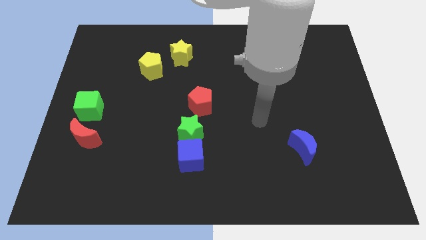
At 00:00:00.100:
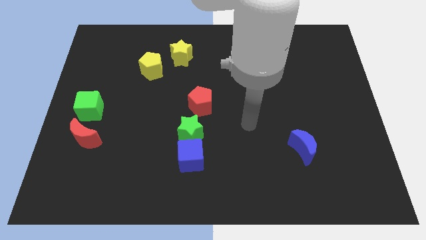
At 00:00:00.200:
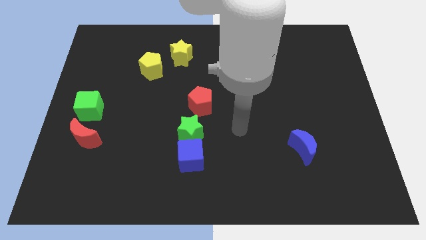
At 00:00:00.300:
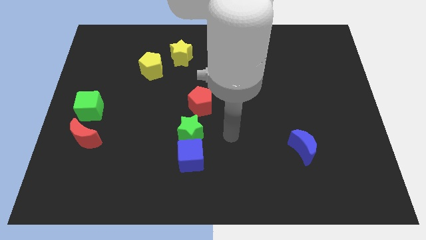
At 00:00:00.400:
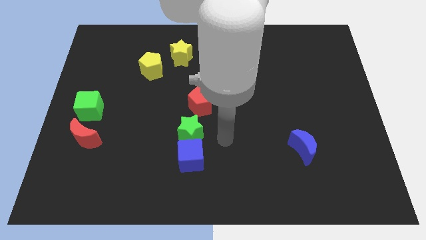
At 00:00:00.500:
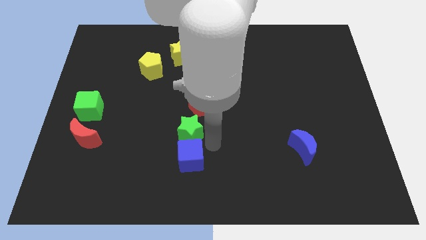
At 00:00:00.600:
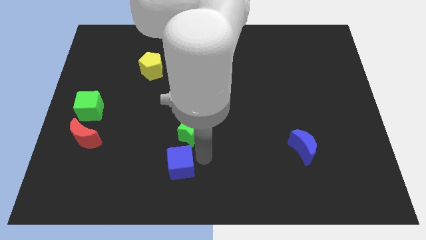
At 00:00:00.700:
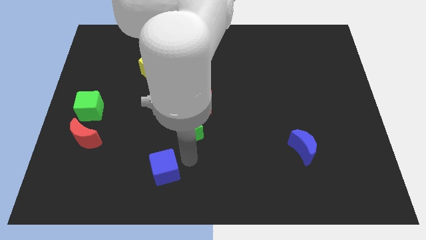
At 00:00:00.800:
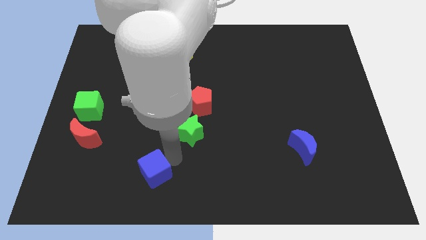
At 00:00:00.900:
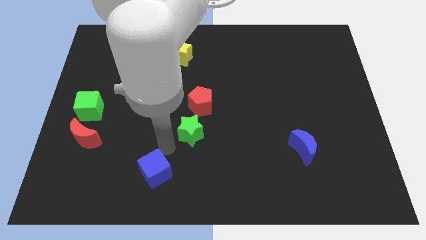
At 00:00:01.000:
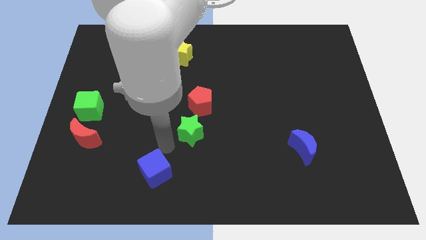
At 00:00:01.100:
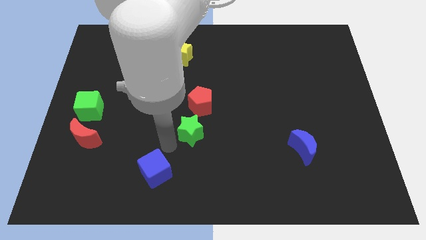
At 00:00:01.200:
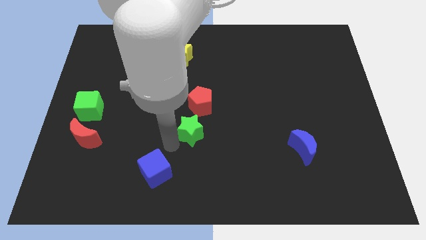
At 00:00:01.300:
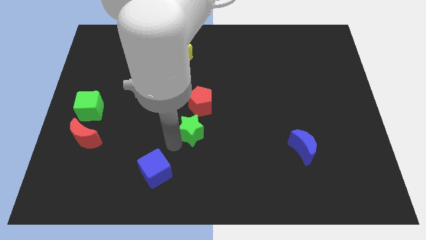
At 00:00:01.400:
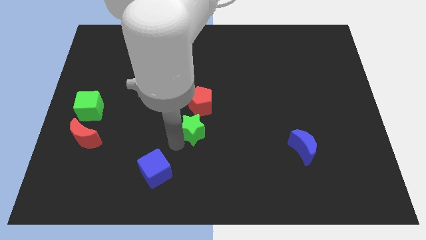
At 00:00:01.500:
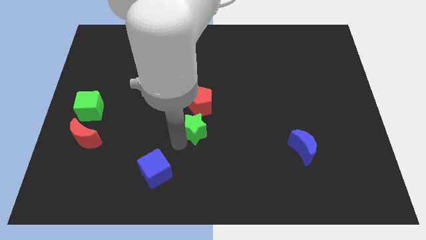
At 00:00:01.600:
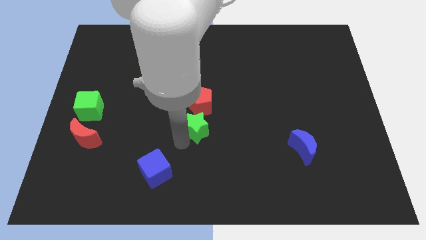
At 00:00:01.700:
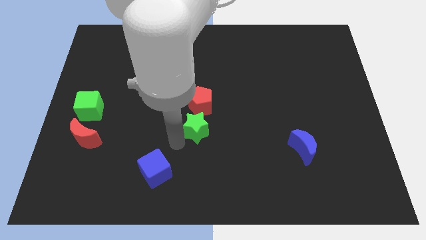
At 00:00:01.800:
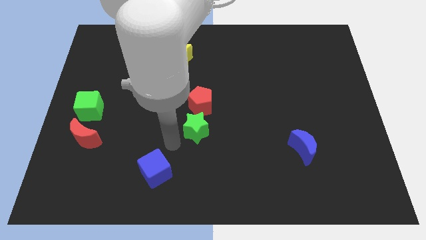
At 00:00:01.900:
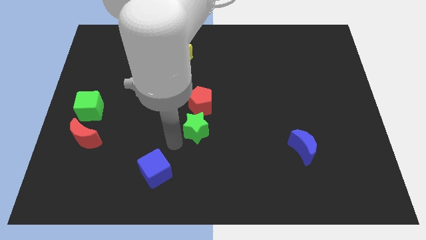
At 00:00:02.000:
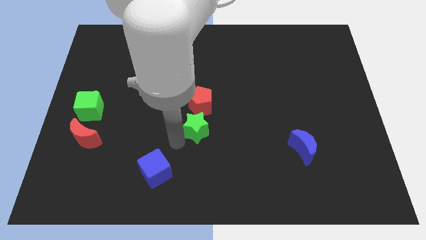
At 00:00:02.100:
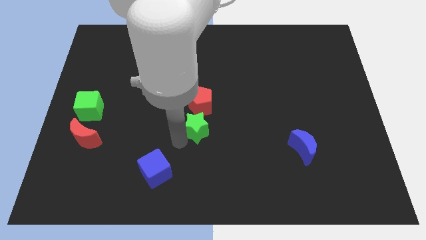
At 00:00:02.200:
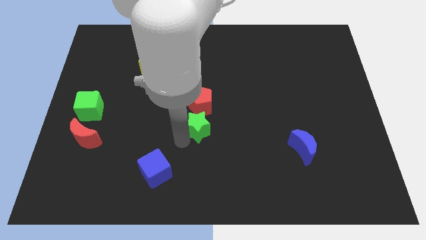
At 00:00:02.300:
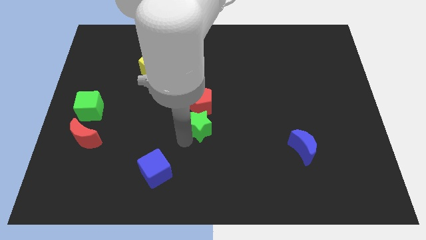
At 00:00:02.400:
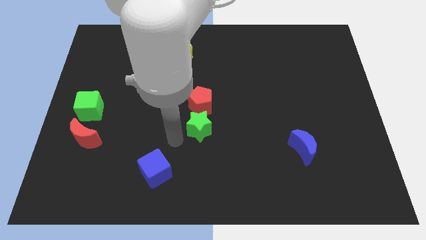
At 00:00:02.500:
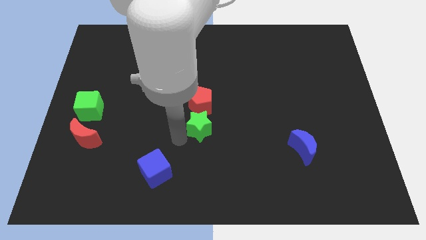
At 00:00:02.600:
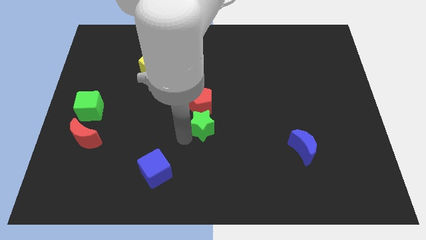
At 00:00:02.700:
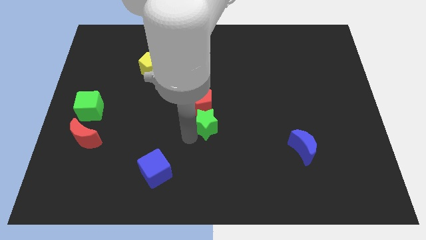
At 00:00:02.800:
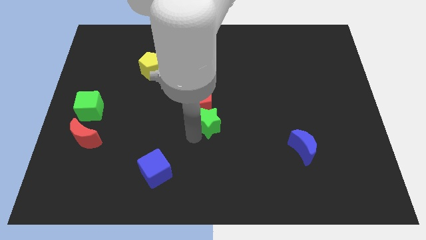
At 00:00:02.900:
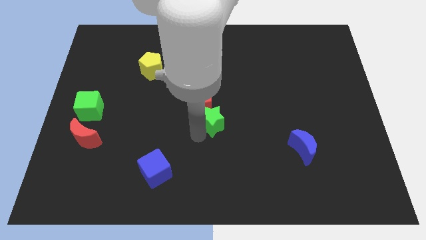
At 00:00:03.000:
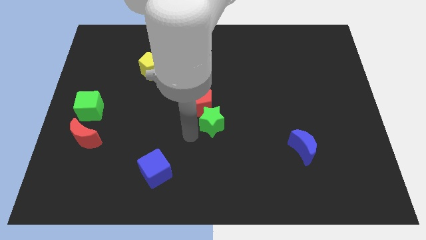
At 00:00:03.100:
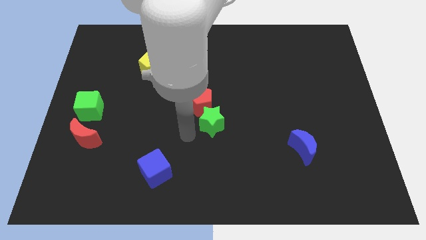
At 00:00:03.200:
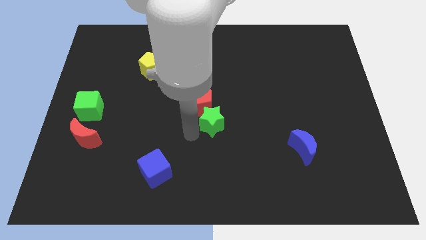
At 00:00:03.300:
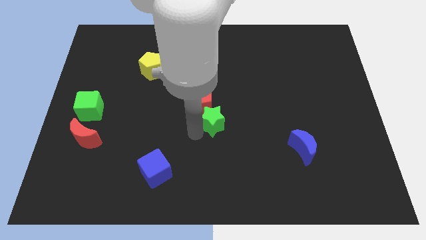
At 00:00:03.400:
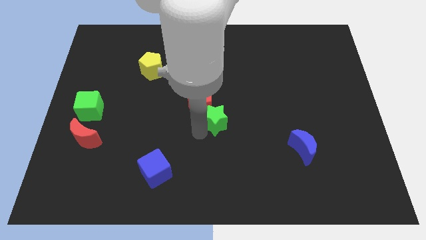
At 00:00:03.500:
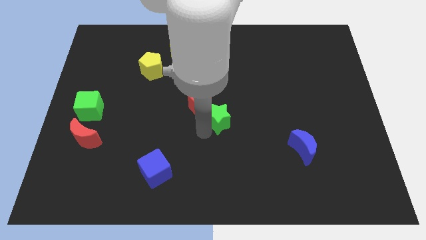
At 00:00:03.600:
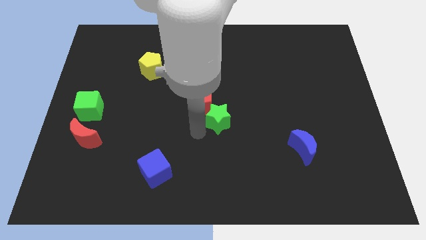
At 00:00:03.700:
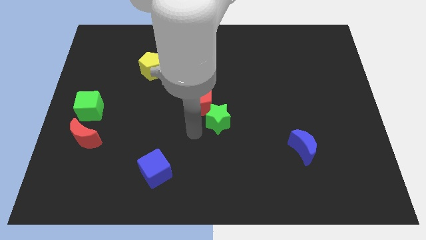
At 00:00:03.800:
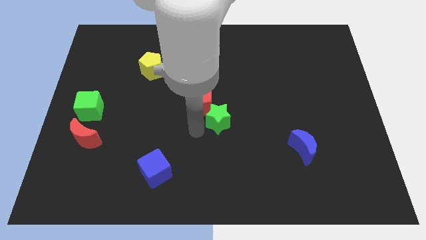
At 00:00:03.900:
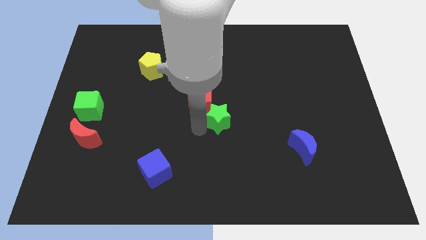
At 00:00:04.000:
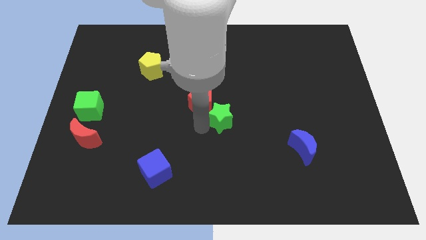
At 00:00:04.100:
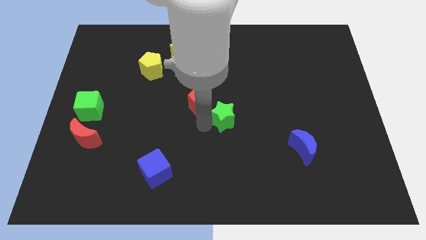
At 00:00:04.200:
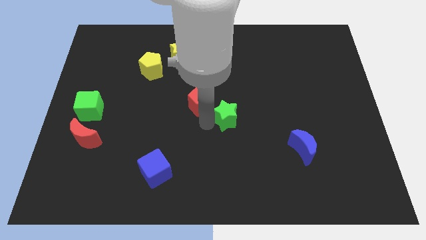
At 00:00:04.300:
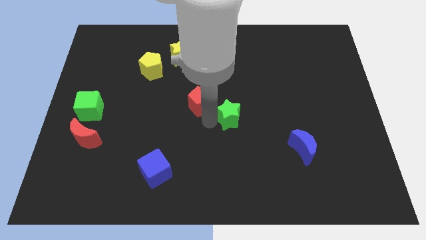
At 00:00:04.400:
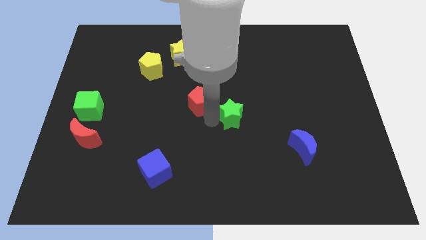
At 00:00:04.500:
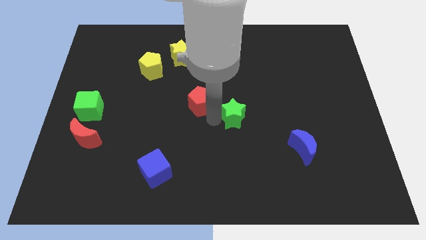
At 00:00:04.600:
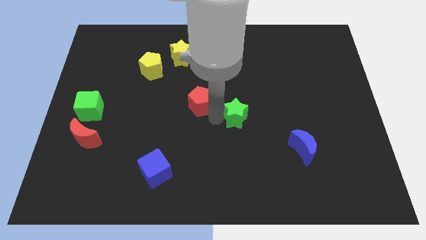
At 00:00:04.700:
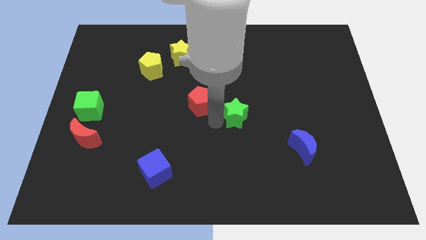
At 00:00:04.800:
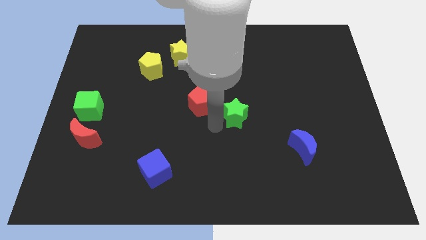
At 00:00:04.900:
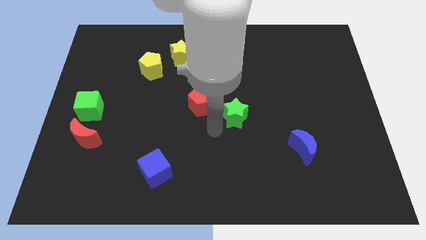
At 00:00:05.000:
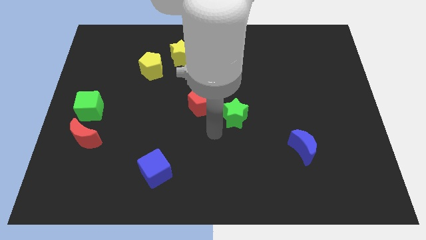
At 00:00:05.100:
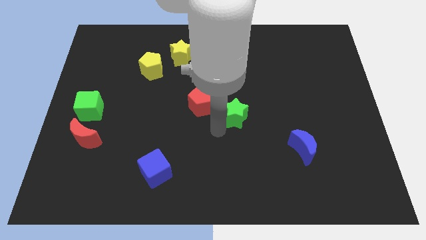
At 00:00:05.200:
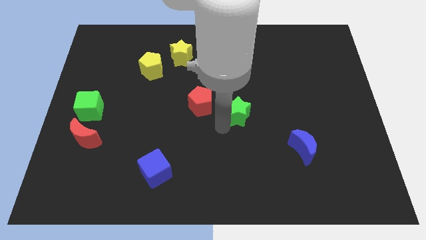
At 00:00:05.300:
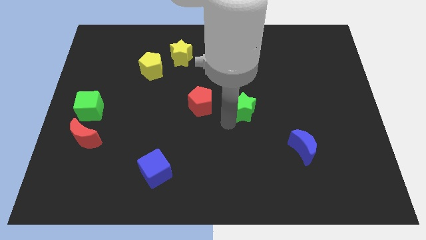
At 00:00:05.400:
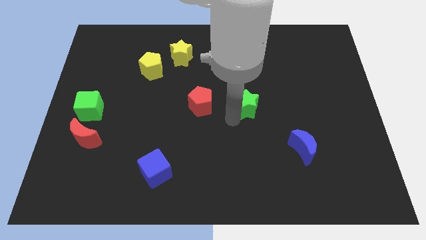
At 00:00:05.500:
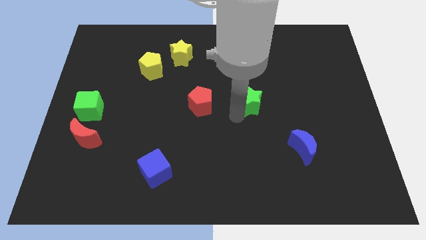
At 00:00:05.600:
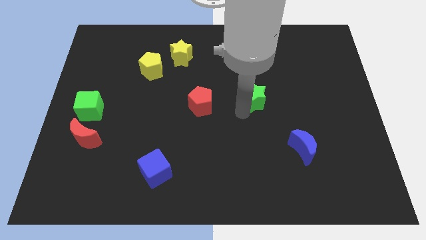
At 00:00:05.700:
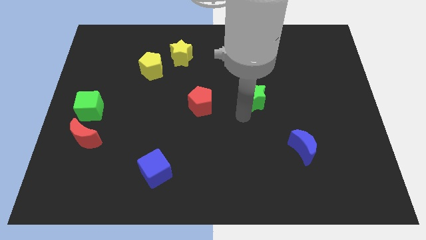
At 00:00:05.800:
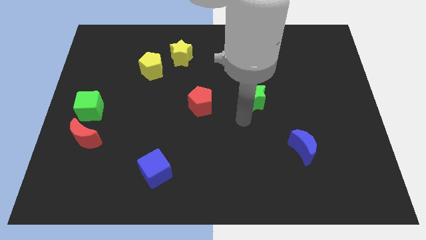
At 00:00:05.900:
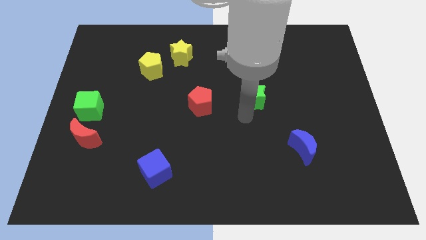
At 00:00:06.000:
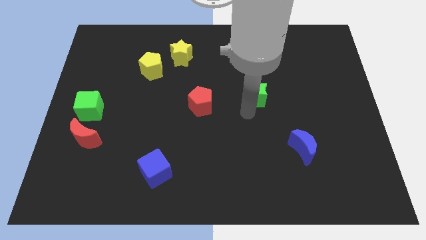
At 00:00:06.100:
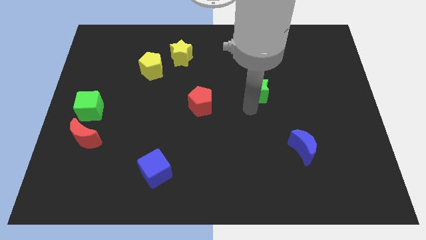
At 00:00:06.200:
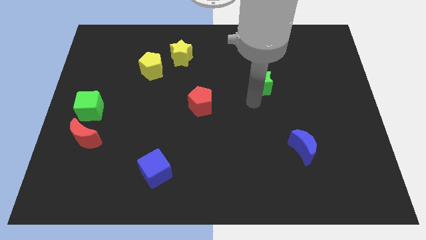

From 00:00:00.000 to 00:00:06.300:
slide the green star diagonally up and right

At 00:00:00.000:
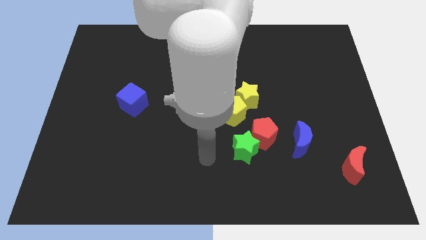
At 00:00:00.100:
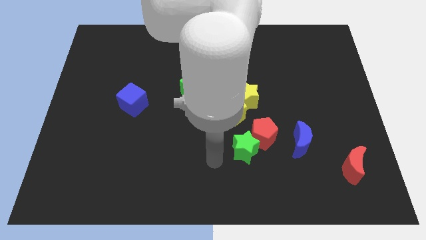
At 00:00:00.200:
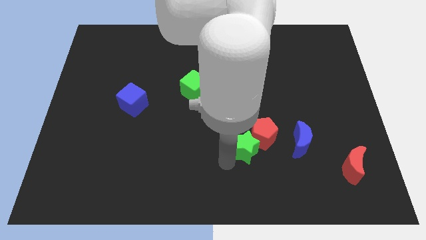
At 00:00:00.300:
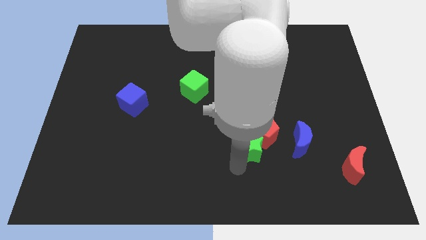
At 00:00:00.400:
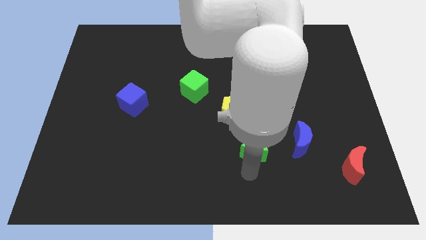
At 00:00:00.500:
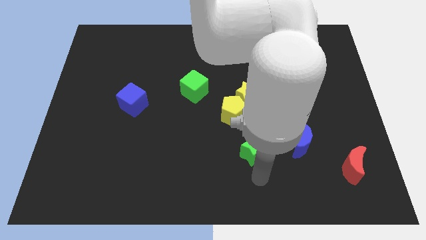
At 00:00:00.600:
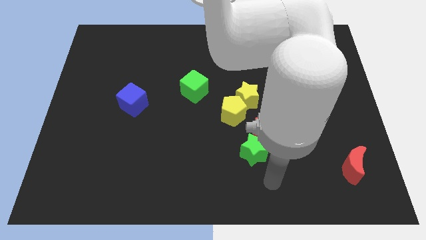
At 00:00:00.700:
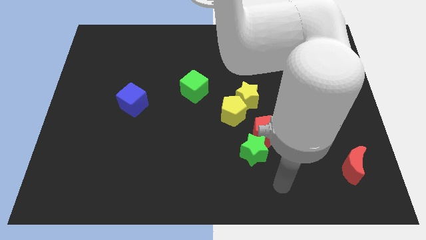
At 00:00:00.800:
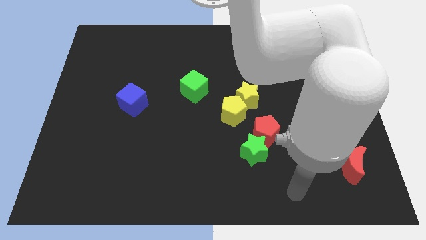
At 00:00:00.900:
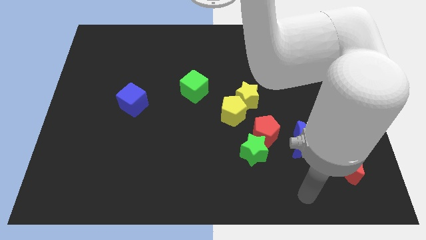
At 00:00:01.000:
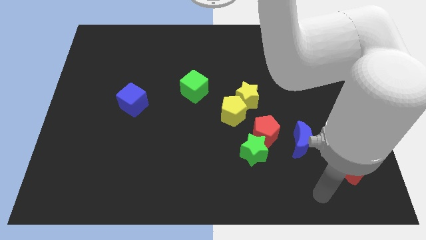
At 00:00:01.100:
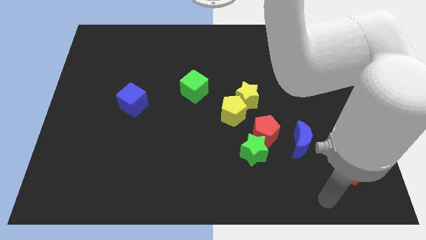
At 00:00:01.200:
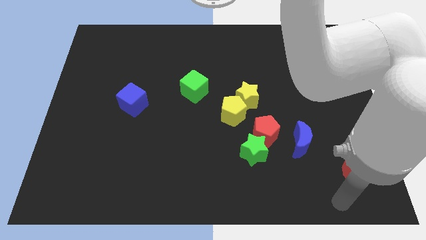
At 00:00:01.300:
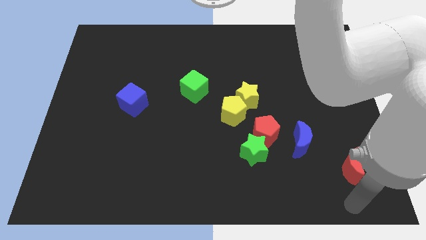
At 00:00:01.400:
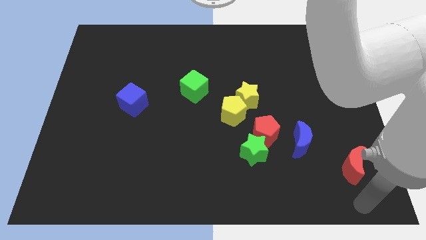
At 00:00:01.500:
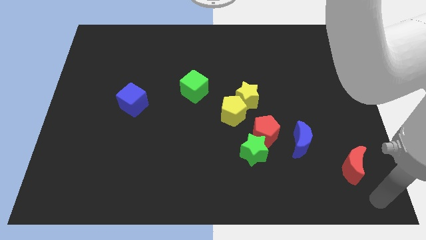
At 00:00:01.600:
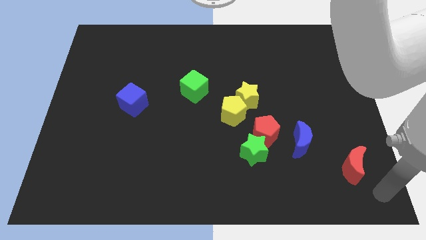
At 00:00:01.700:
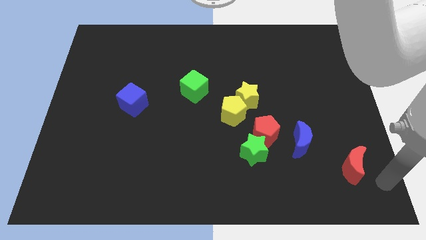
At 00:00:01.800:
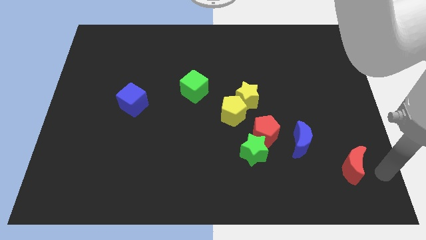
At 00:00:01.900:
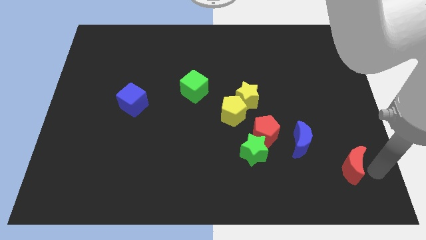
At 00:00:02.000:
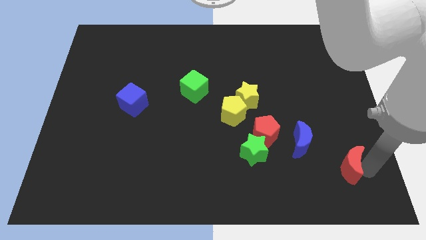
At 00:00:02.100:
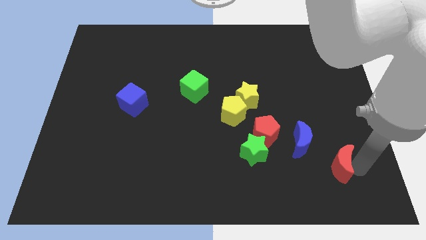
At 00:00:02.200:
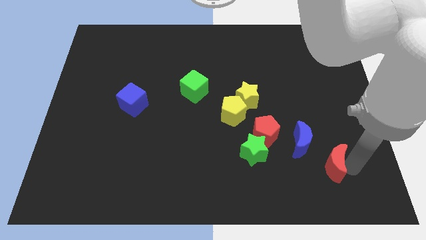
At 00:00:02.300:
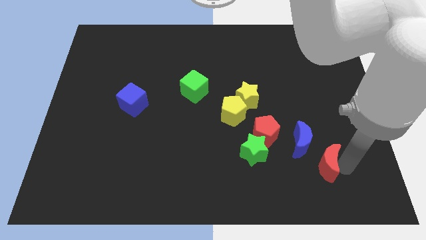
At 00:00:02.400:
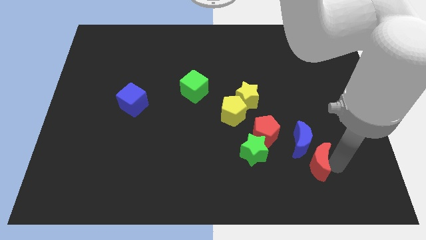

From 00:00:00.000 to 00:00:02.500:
slide the red moon left a bit
